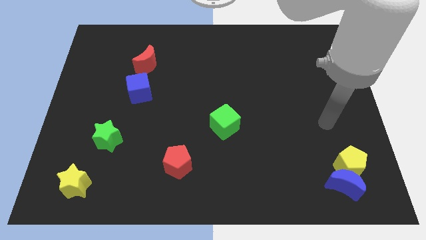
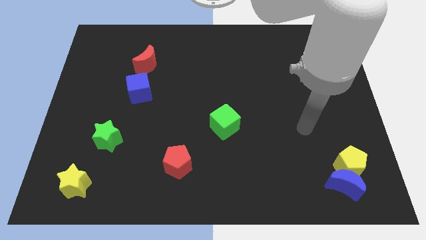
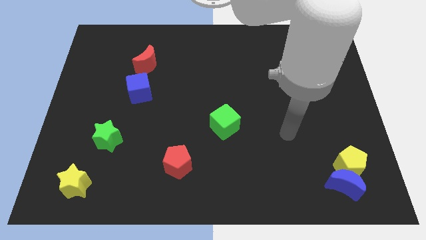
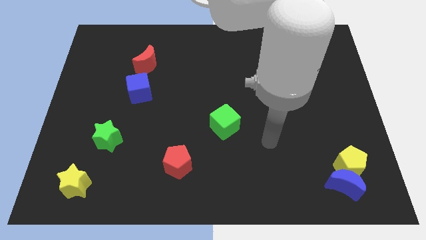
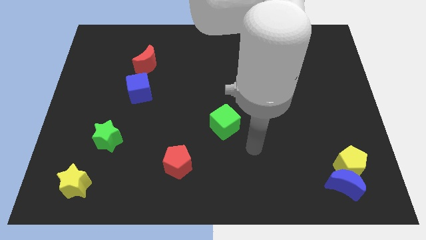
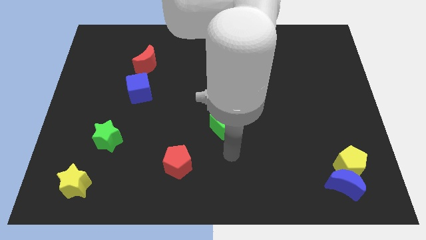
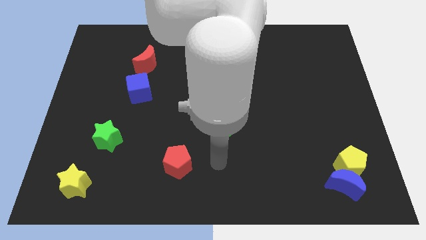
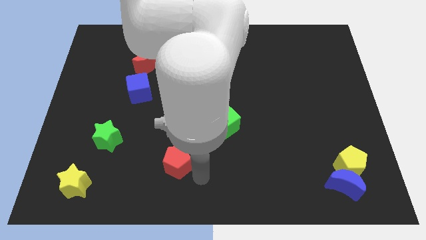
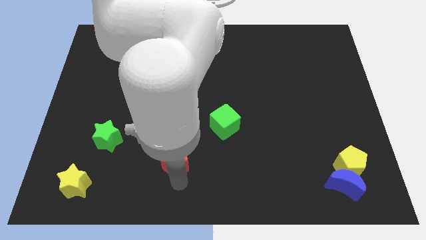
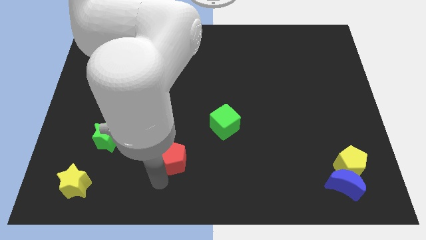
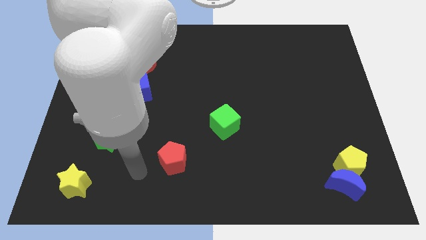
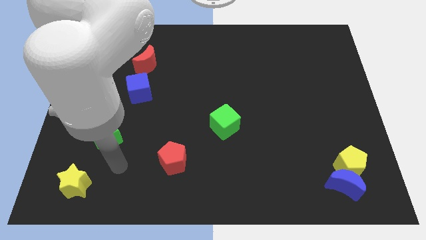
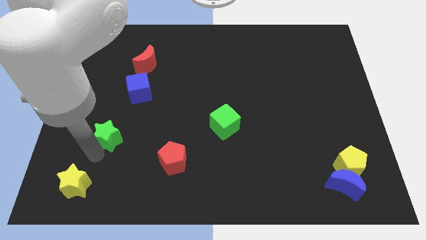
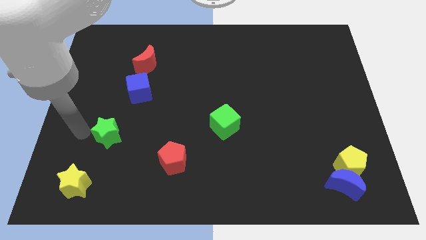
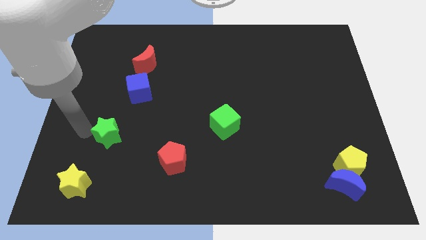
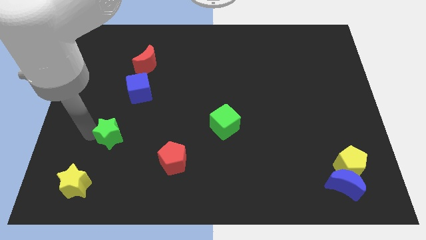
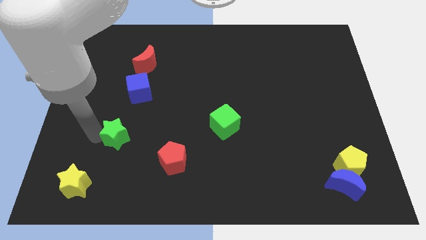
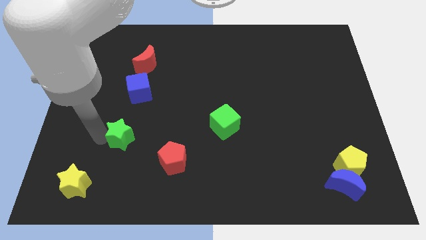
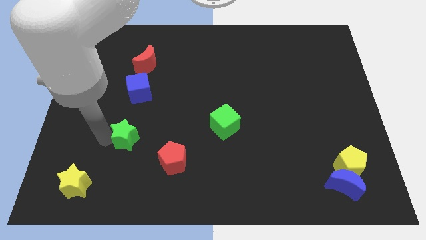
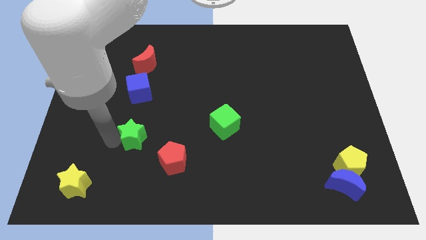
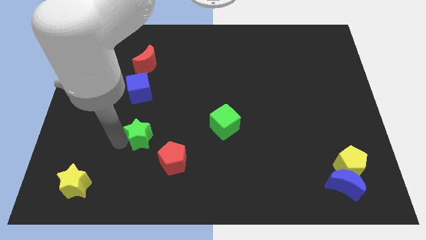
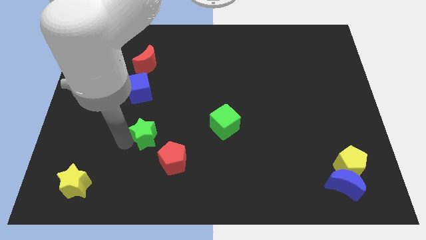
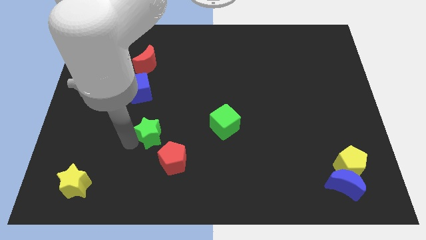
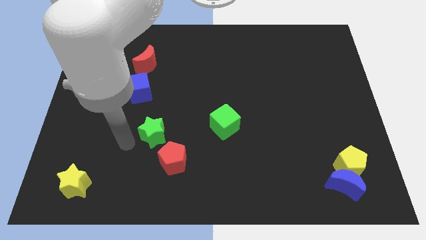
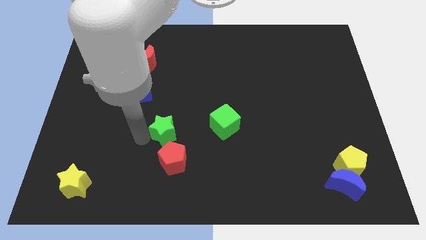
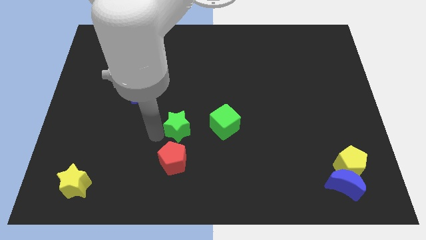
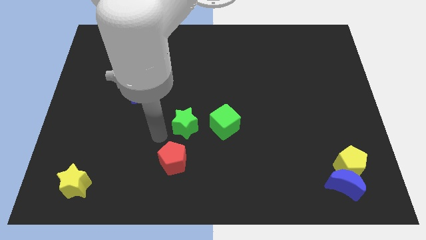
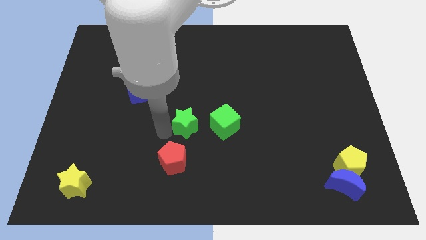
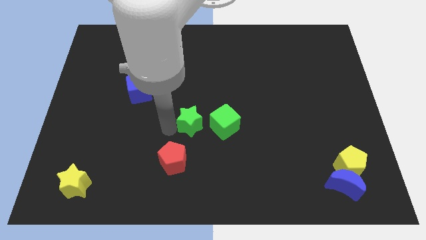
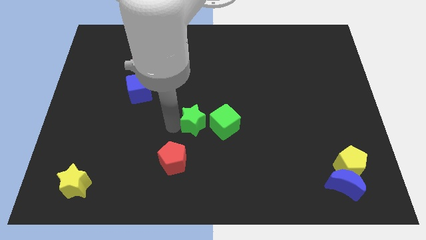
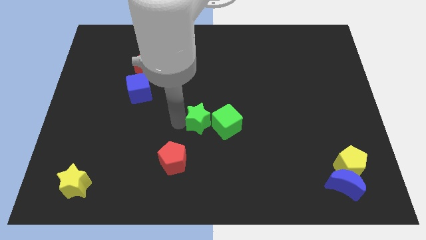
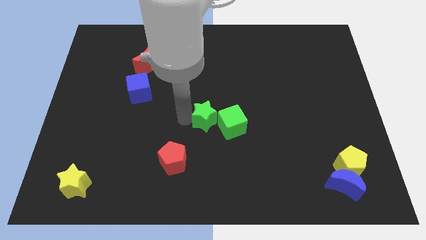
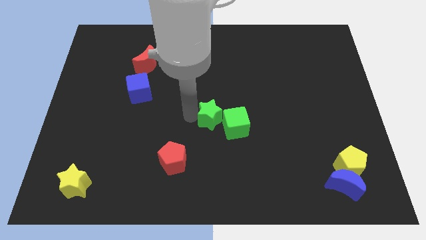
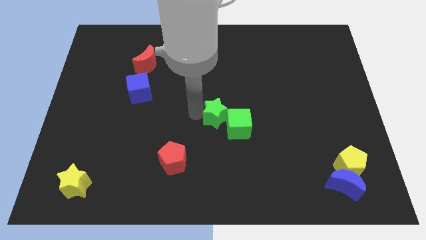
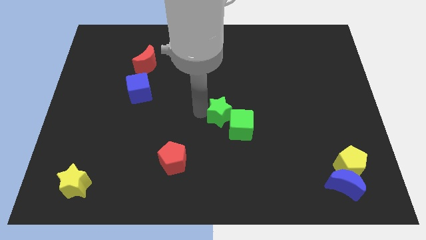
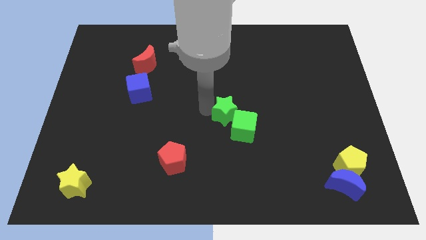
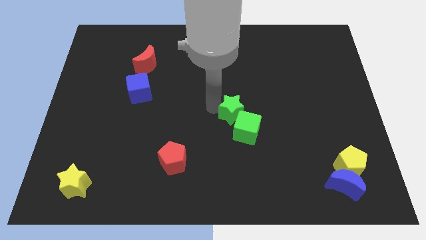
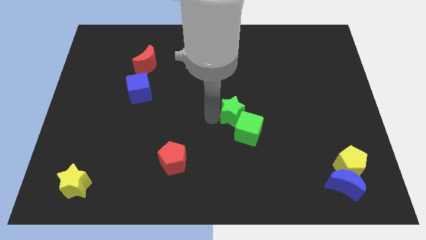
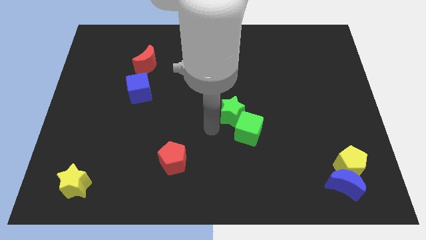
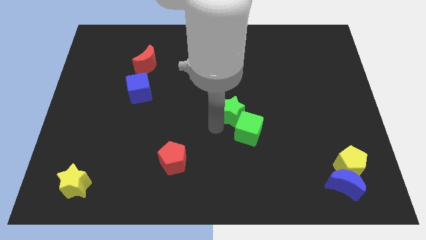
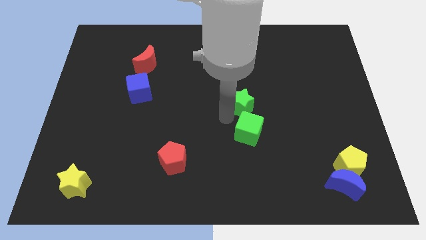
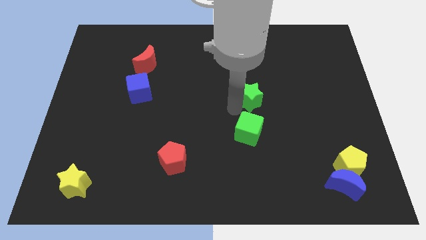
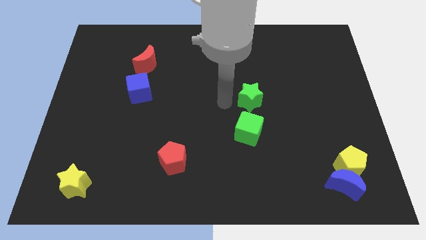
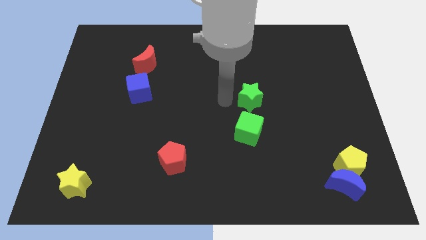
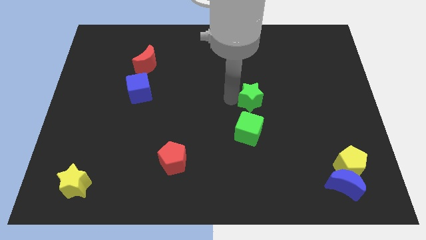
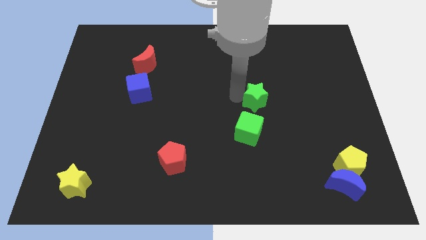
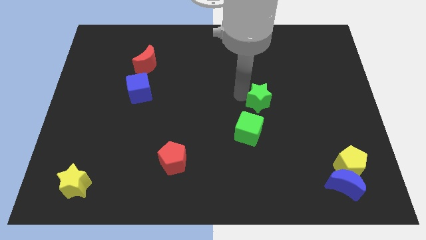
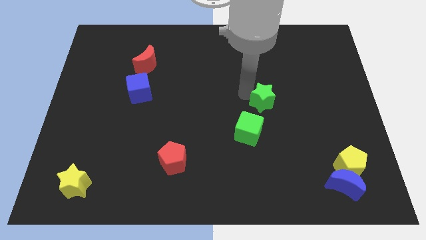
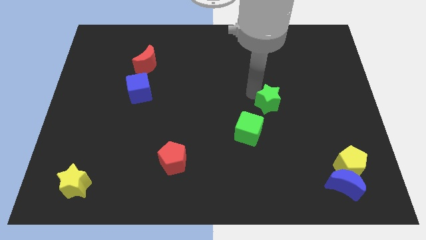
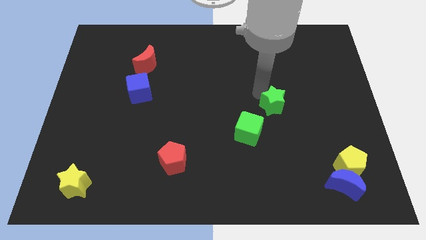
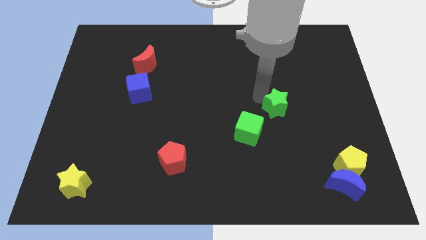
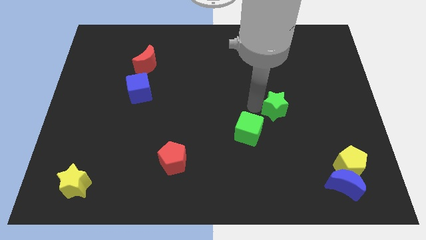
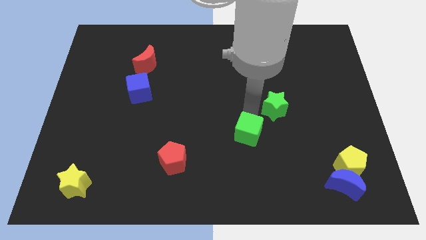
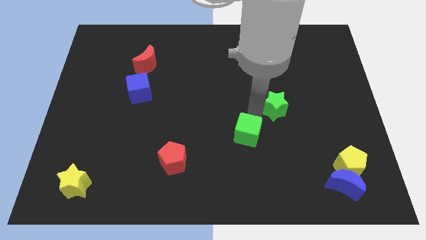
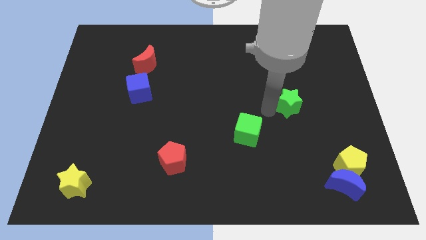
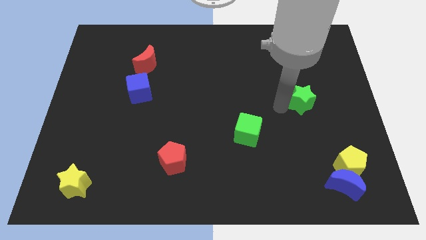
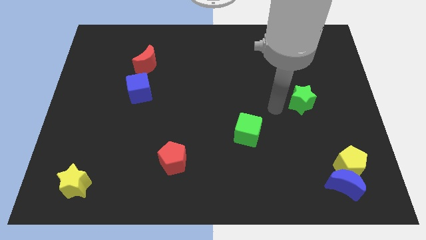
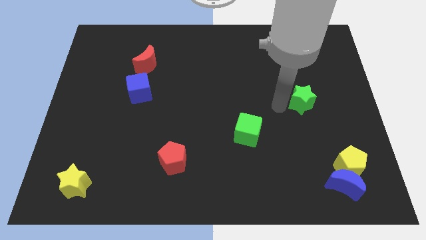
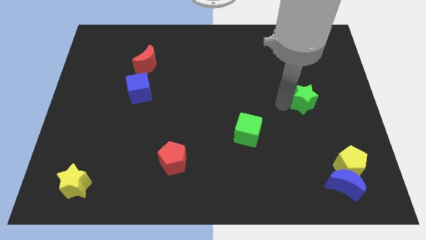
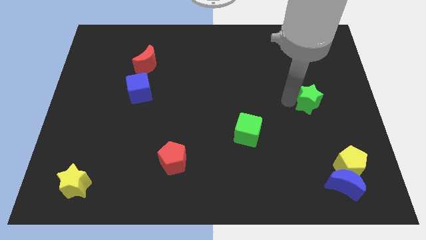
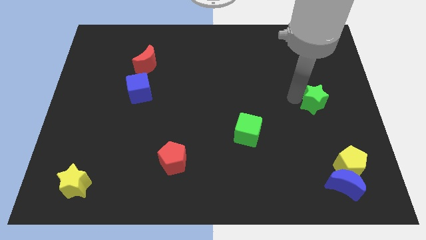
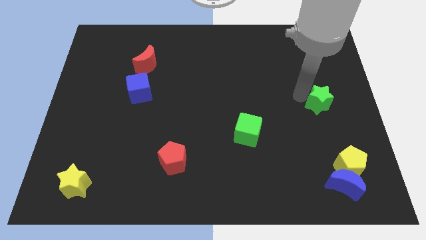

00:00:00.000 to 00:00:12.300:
slide the green star to the right side
